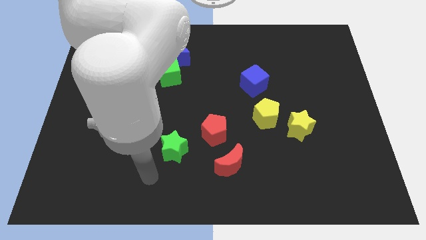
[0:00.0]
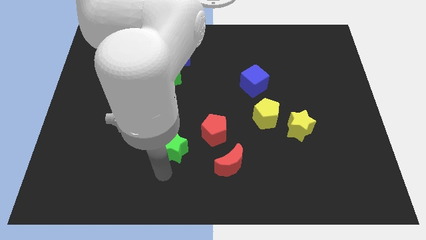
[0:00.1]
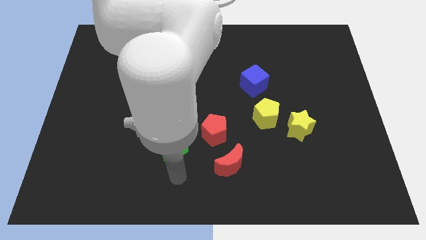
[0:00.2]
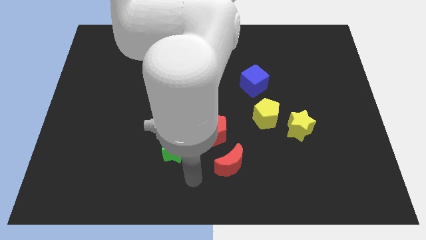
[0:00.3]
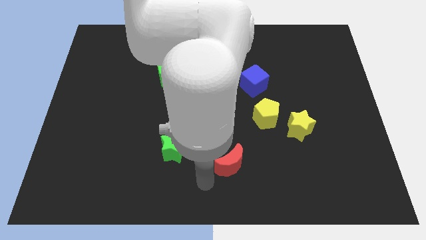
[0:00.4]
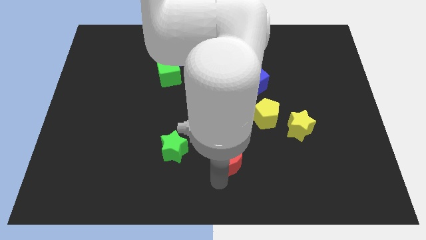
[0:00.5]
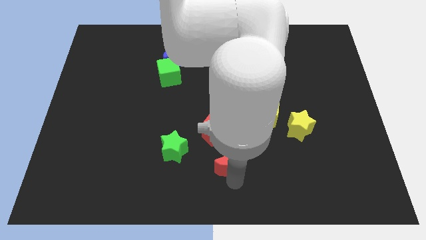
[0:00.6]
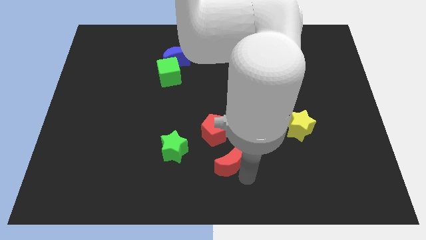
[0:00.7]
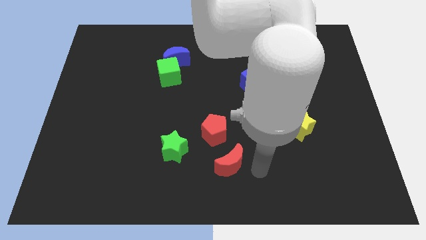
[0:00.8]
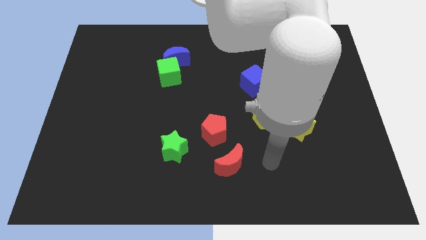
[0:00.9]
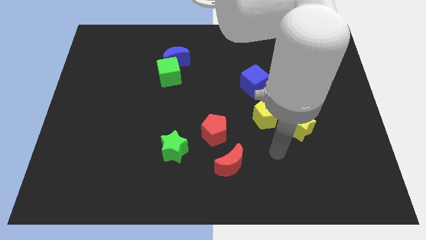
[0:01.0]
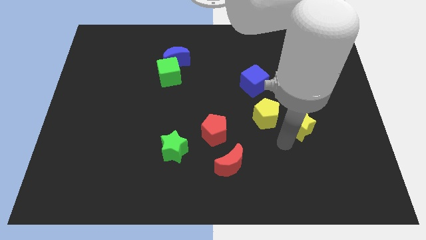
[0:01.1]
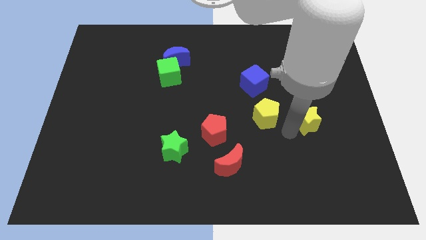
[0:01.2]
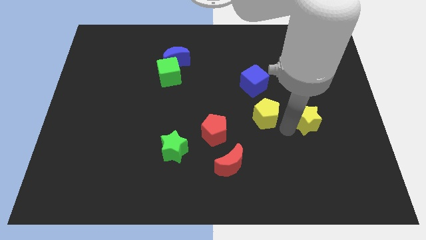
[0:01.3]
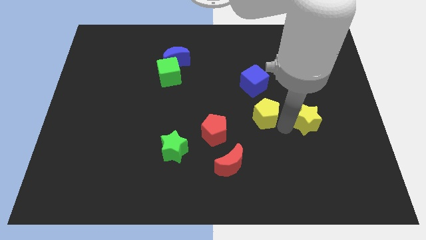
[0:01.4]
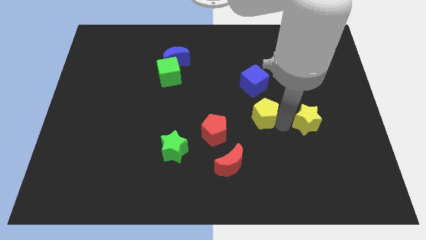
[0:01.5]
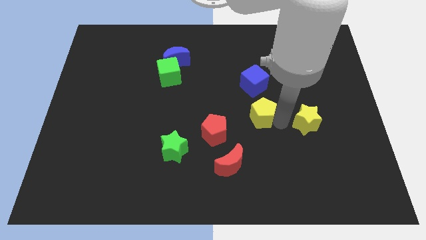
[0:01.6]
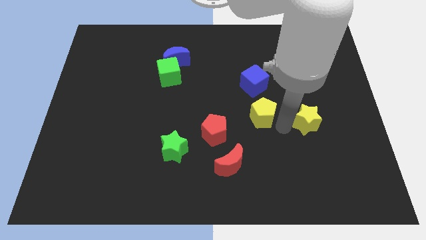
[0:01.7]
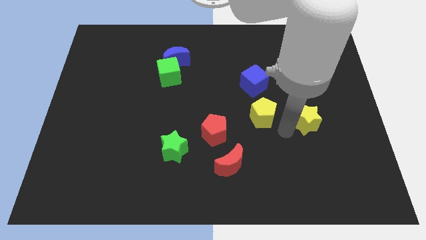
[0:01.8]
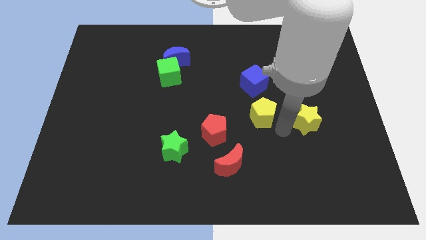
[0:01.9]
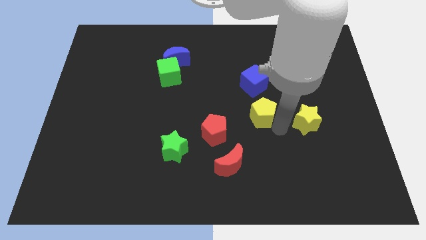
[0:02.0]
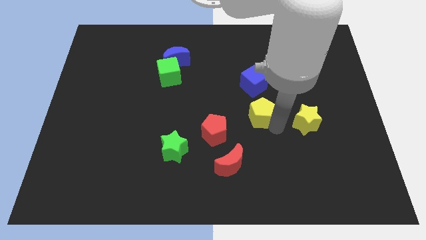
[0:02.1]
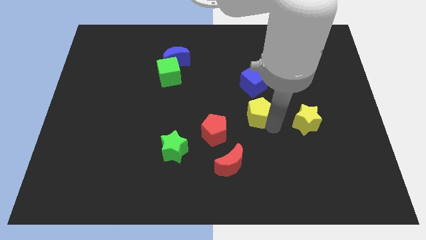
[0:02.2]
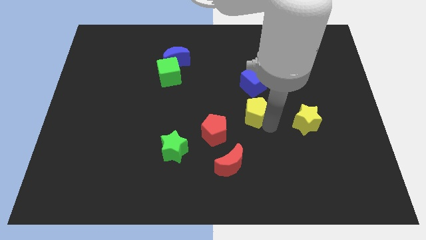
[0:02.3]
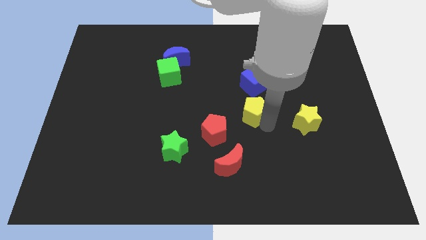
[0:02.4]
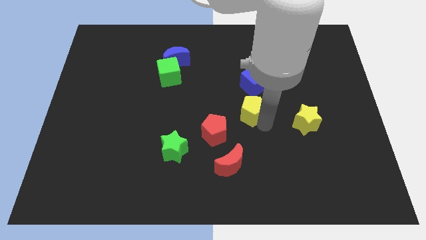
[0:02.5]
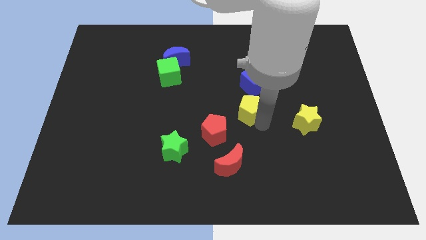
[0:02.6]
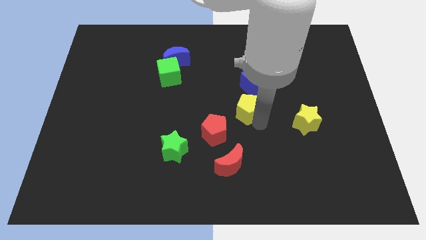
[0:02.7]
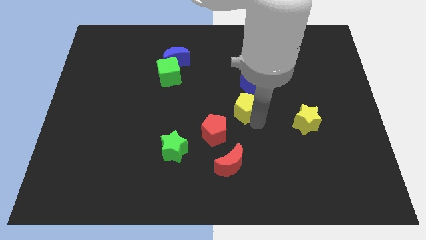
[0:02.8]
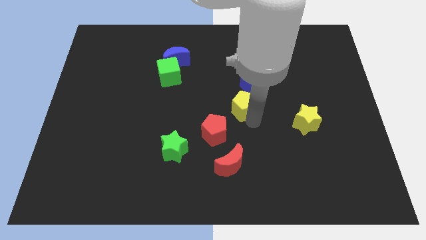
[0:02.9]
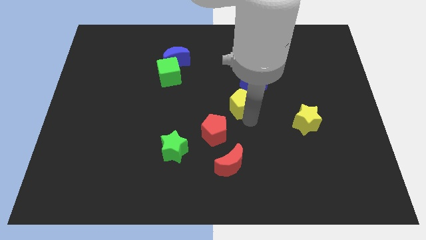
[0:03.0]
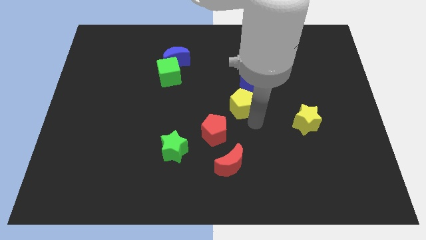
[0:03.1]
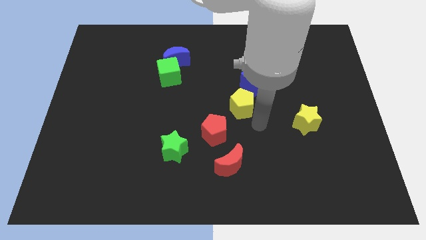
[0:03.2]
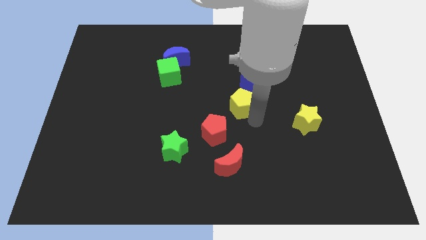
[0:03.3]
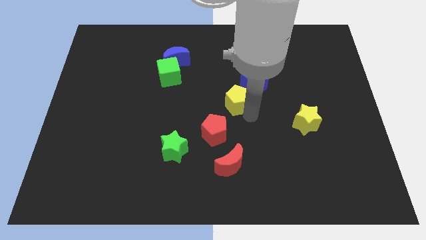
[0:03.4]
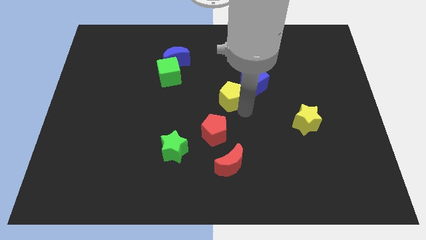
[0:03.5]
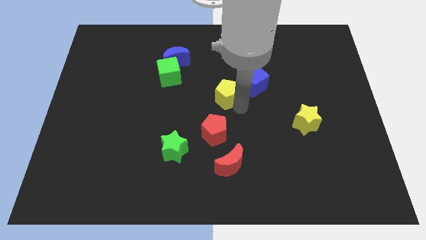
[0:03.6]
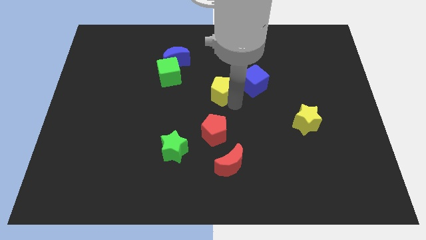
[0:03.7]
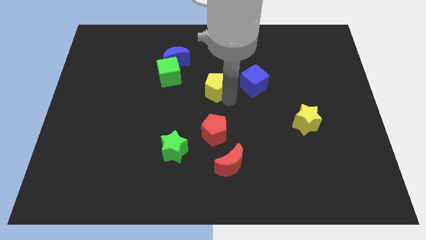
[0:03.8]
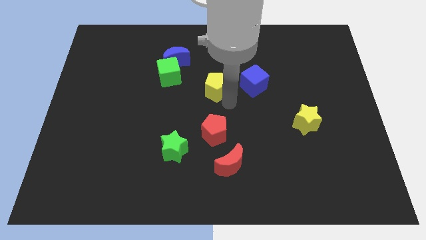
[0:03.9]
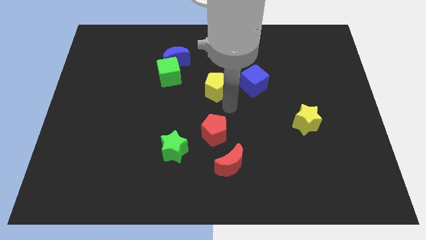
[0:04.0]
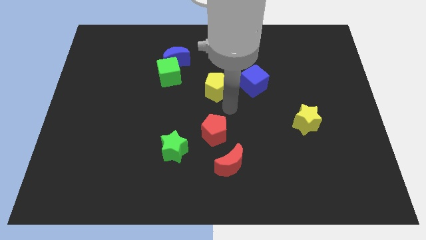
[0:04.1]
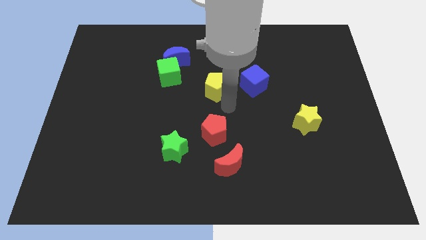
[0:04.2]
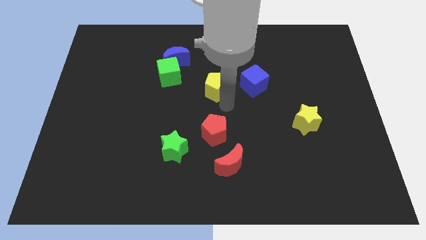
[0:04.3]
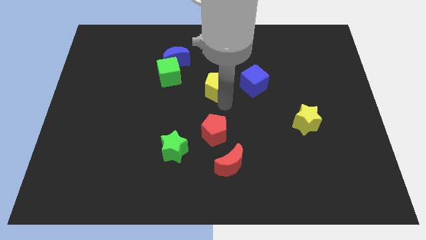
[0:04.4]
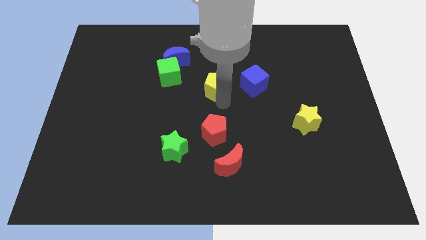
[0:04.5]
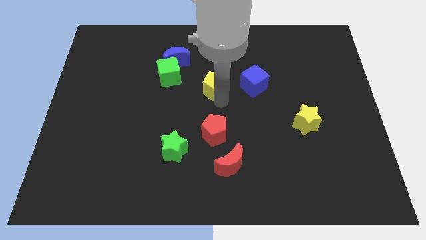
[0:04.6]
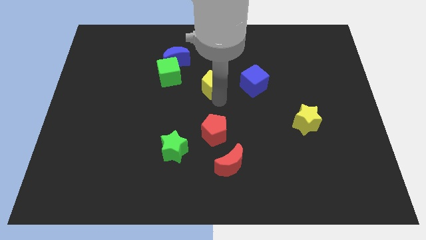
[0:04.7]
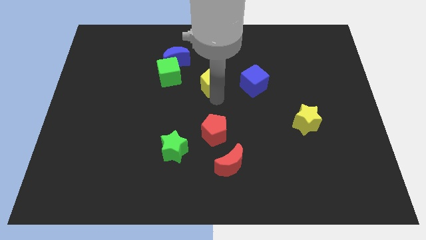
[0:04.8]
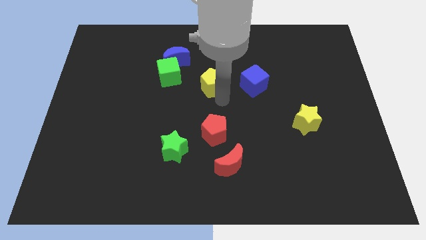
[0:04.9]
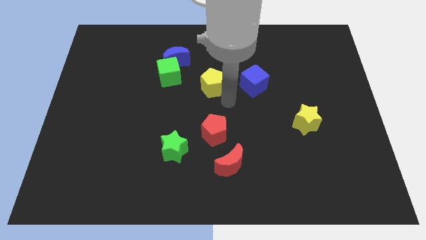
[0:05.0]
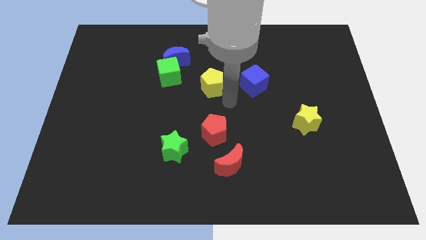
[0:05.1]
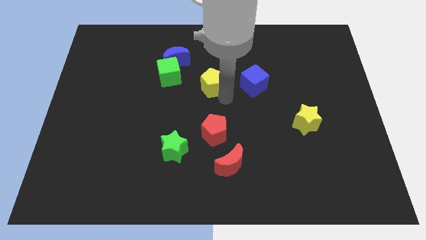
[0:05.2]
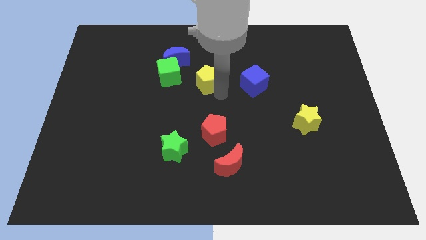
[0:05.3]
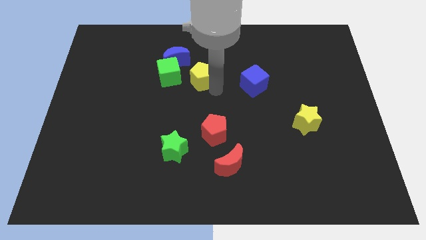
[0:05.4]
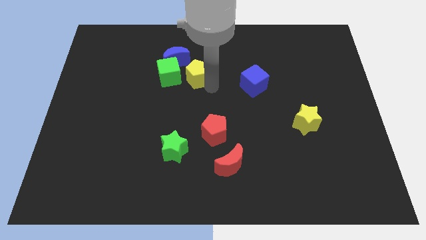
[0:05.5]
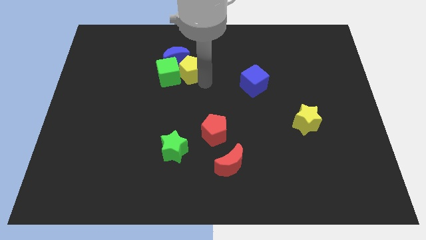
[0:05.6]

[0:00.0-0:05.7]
move the yellow pentagon next to the blue moon

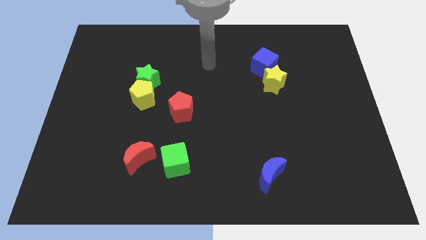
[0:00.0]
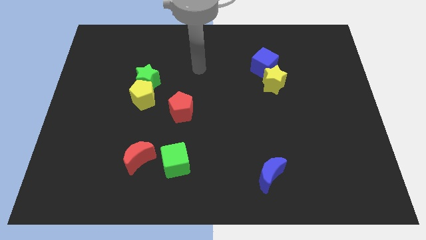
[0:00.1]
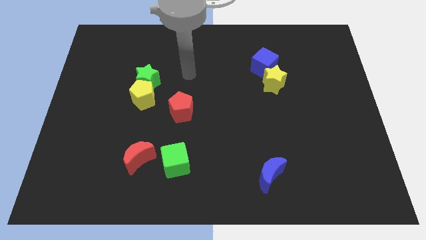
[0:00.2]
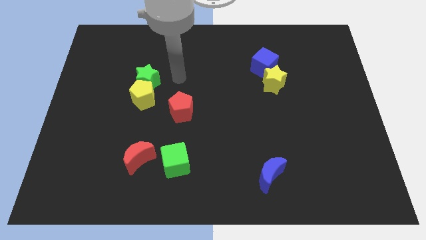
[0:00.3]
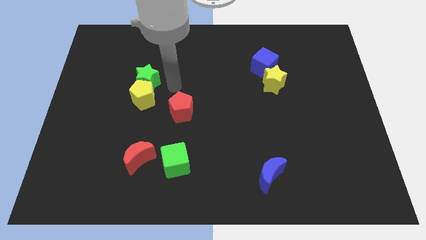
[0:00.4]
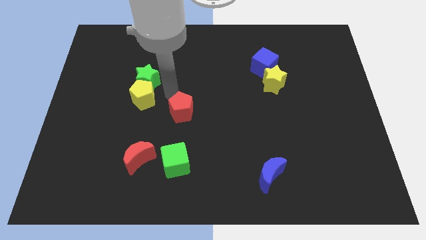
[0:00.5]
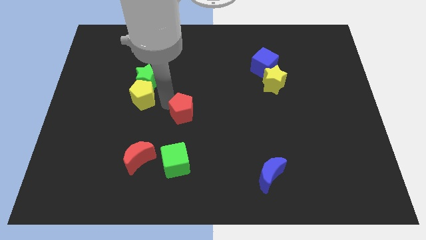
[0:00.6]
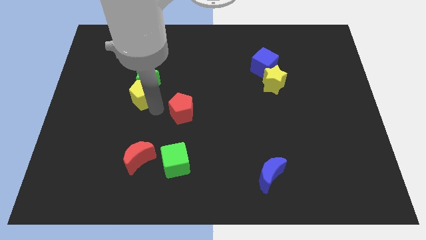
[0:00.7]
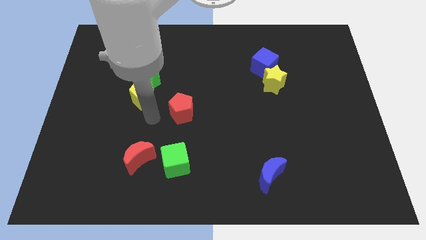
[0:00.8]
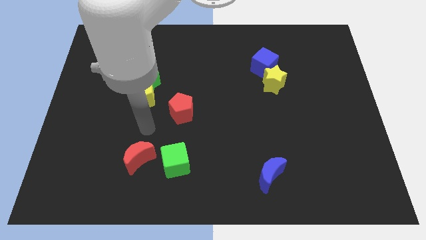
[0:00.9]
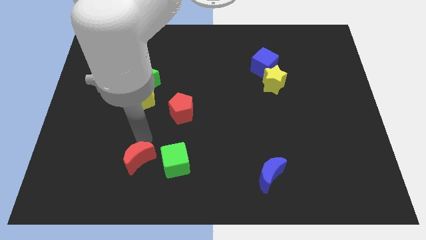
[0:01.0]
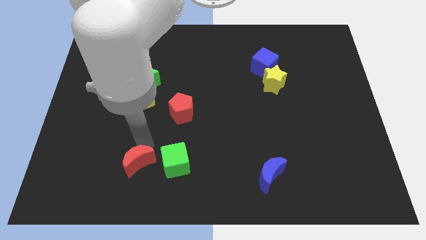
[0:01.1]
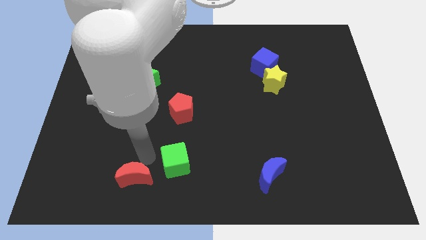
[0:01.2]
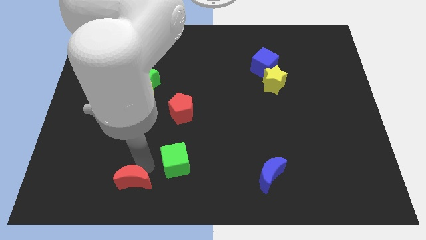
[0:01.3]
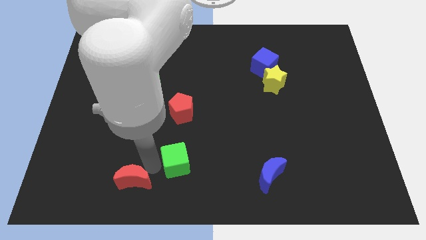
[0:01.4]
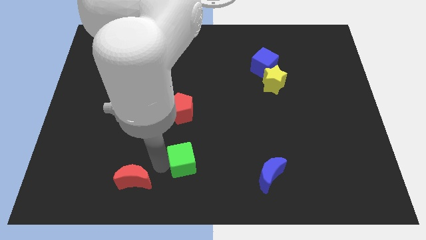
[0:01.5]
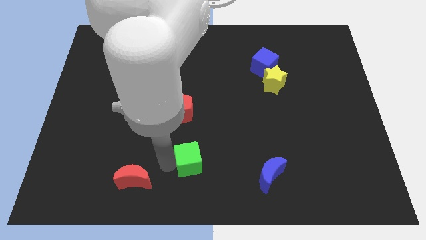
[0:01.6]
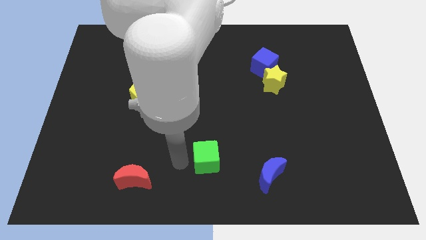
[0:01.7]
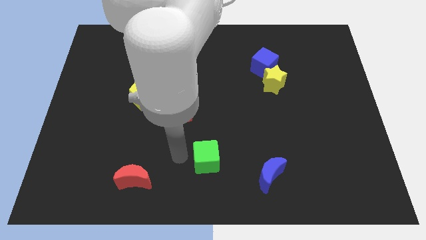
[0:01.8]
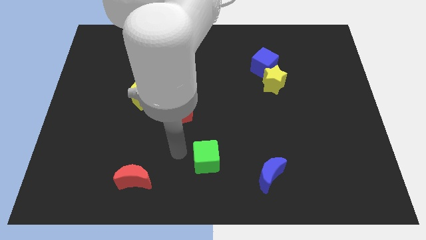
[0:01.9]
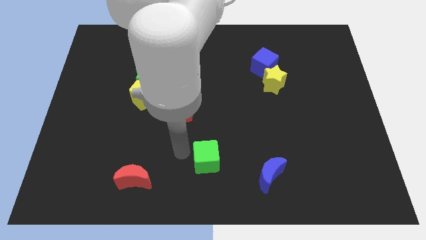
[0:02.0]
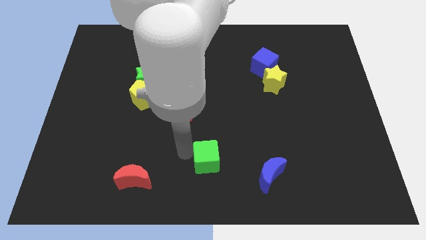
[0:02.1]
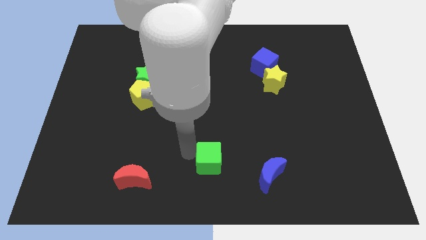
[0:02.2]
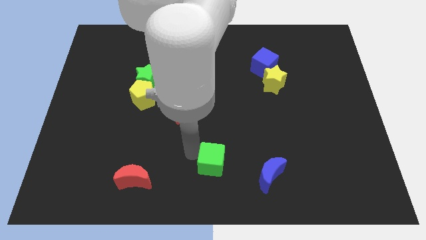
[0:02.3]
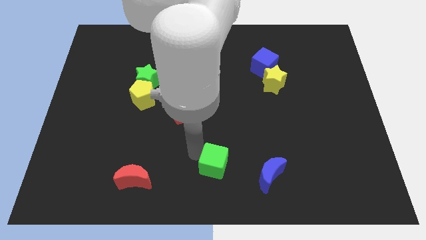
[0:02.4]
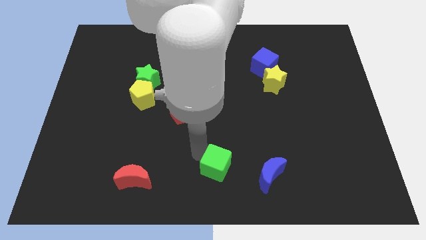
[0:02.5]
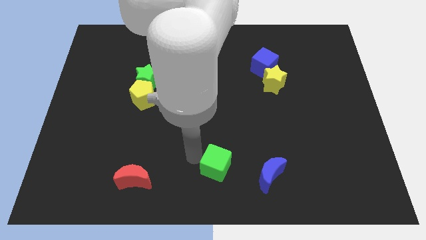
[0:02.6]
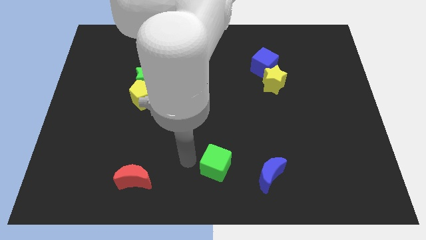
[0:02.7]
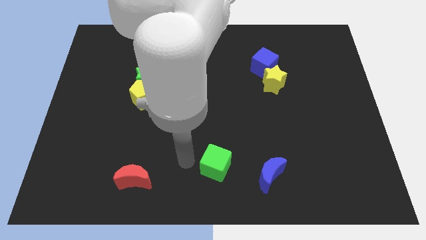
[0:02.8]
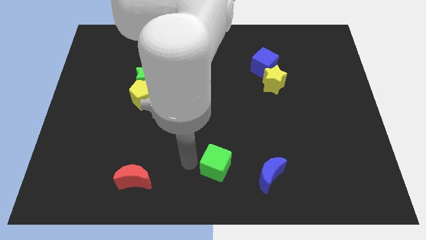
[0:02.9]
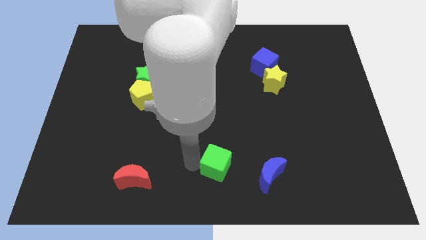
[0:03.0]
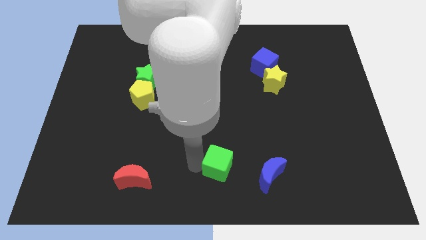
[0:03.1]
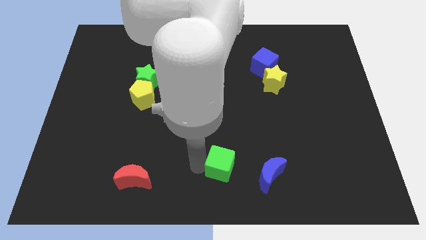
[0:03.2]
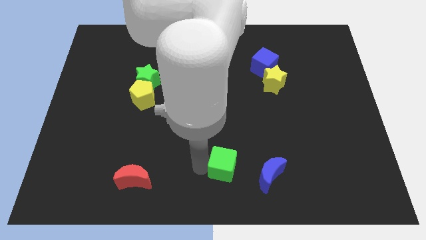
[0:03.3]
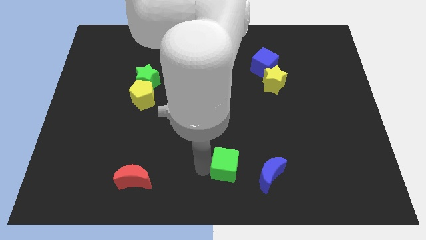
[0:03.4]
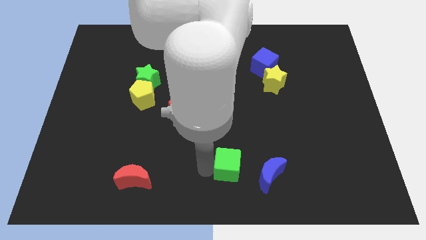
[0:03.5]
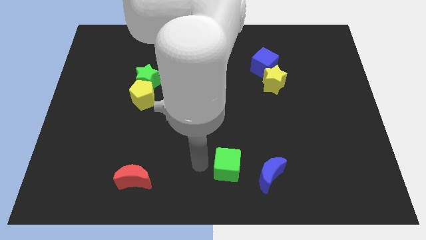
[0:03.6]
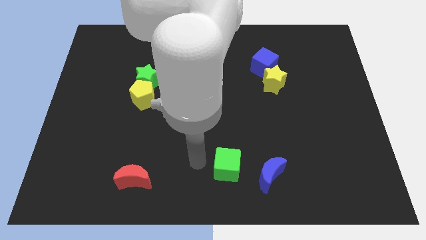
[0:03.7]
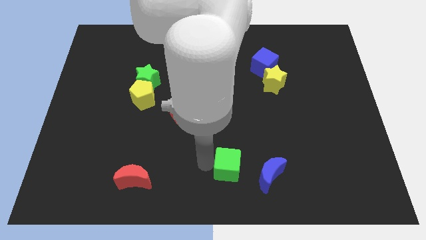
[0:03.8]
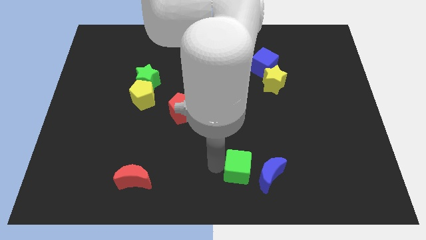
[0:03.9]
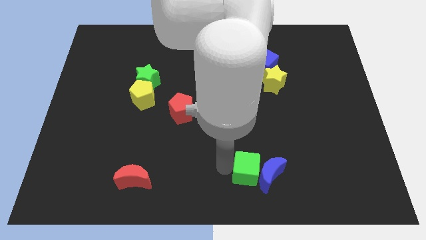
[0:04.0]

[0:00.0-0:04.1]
push the green cube towards the blue moon
